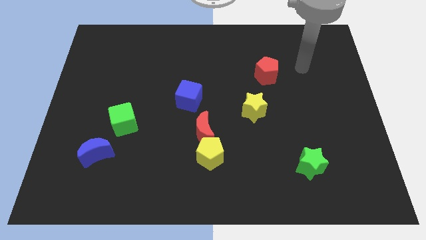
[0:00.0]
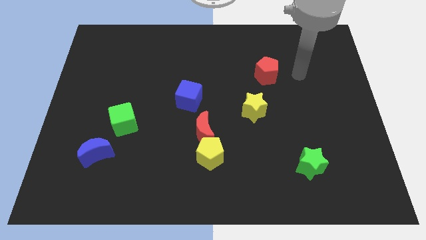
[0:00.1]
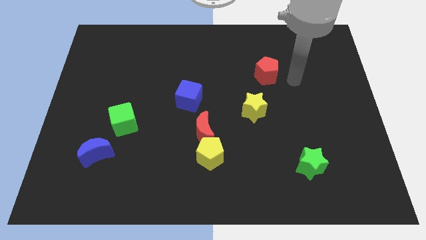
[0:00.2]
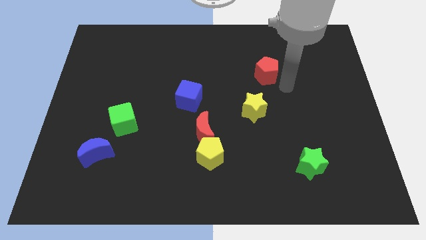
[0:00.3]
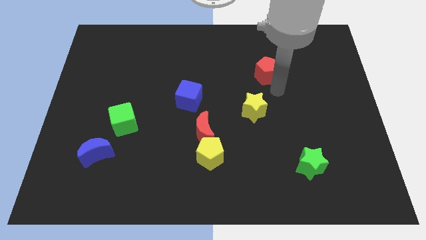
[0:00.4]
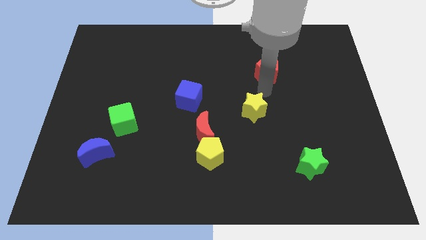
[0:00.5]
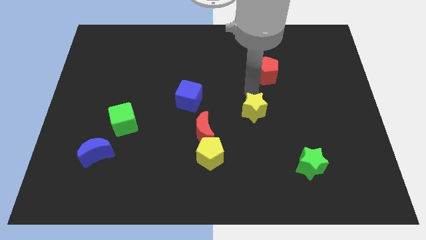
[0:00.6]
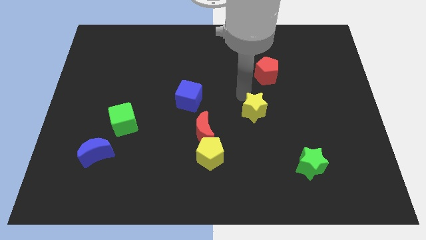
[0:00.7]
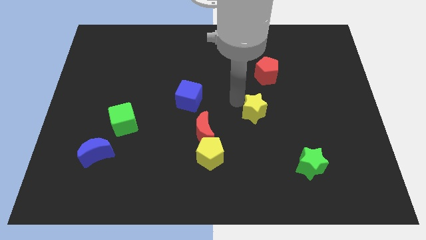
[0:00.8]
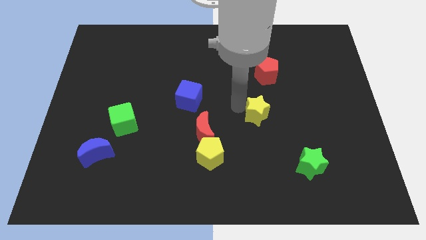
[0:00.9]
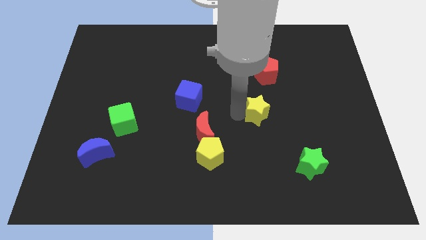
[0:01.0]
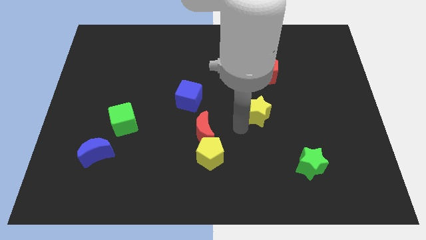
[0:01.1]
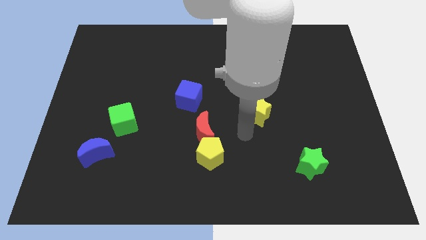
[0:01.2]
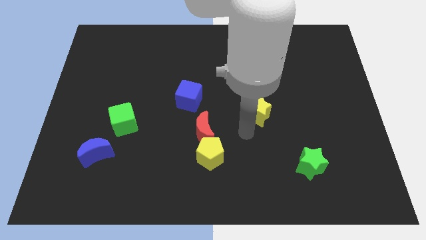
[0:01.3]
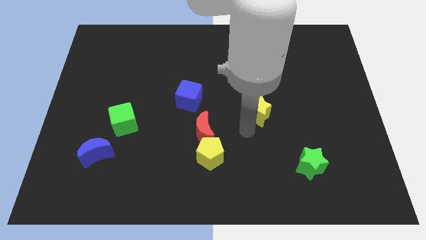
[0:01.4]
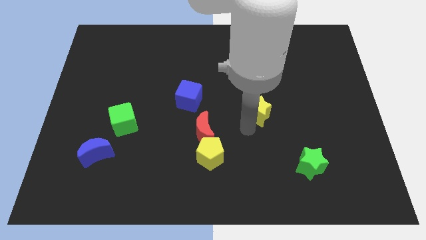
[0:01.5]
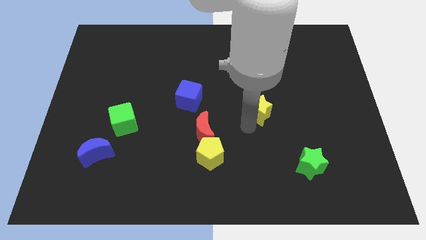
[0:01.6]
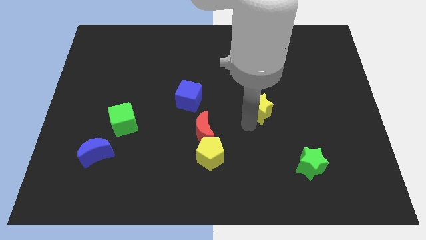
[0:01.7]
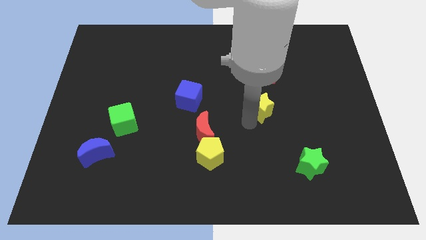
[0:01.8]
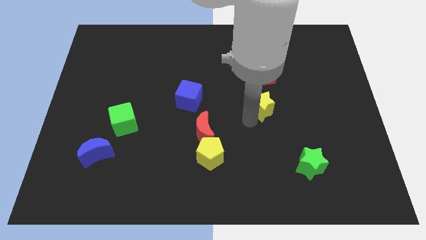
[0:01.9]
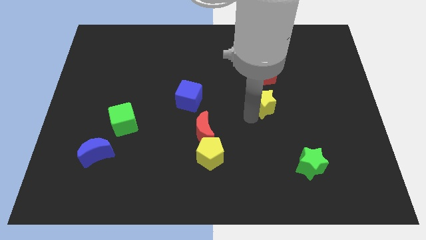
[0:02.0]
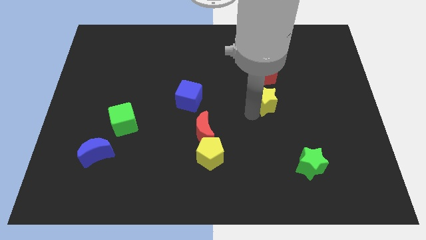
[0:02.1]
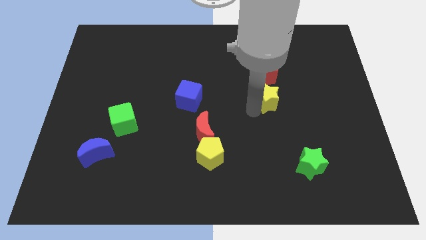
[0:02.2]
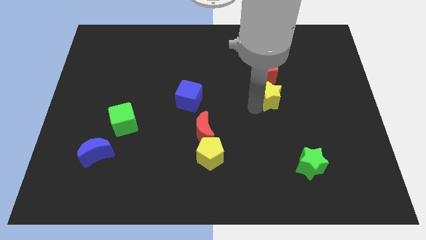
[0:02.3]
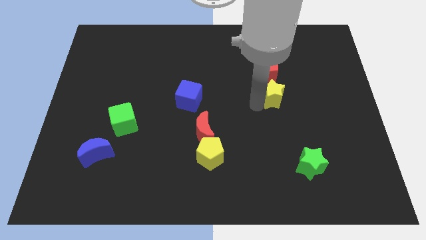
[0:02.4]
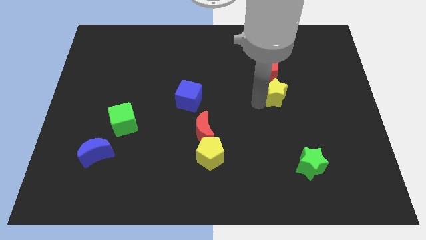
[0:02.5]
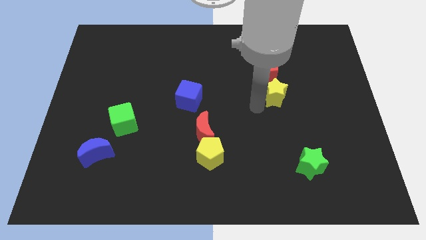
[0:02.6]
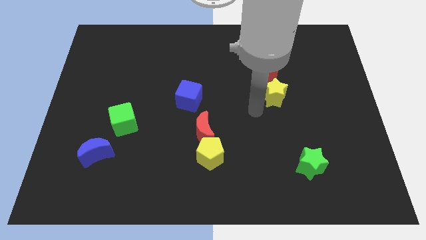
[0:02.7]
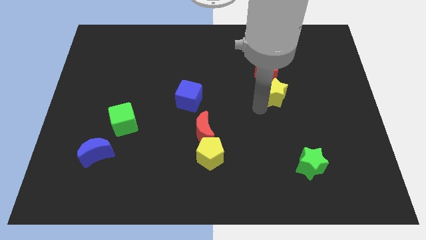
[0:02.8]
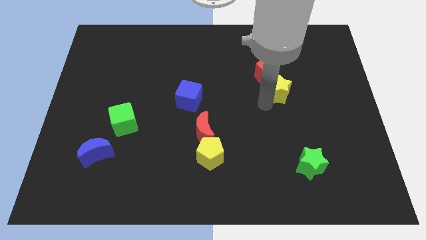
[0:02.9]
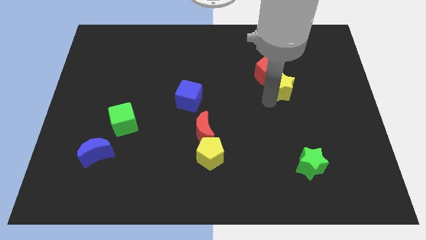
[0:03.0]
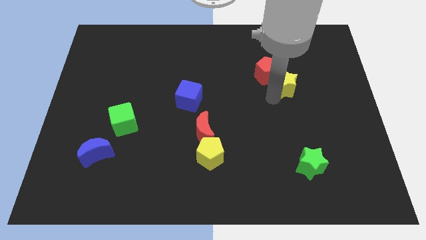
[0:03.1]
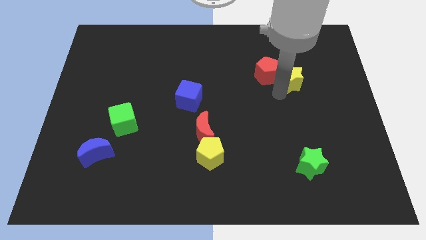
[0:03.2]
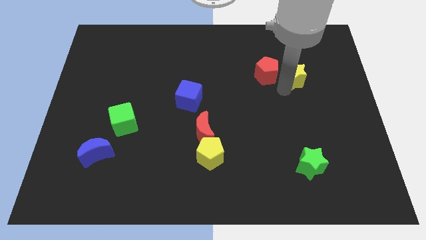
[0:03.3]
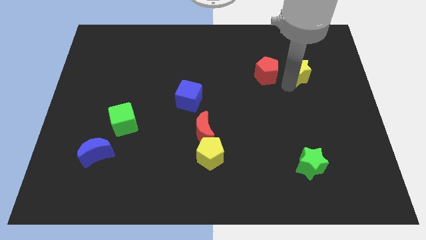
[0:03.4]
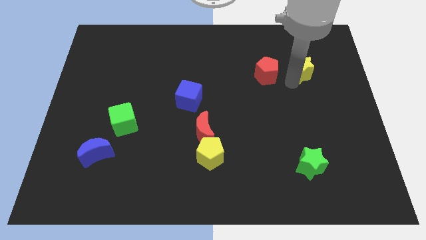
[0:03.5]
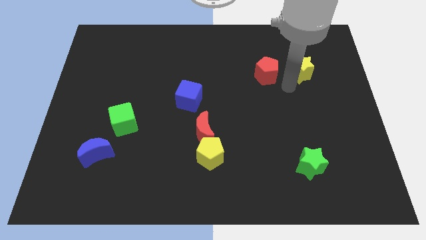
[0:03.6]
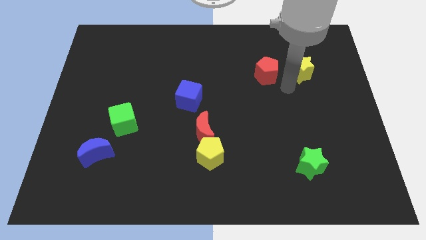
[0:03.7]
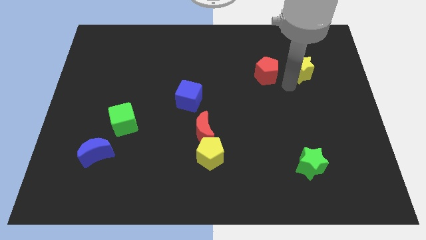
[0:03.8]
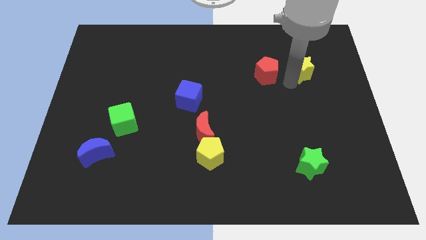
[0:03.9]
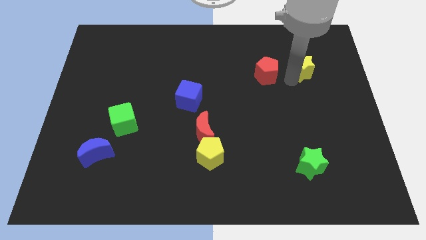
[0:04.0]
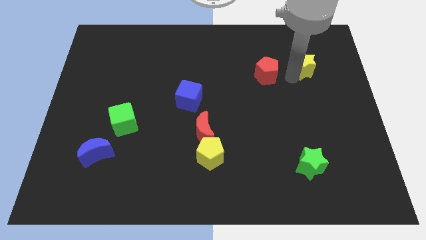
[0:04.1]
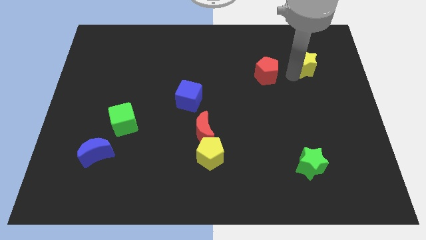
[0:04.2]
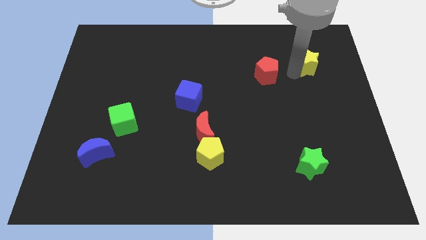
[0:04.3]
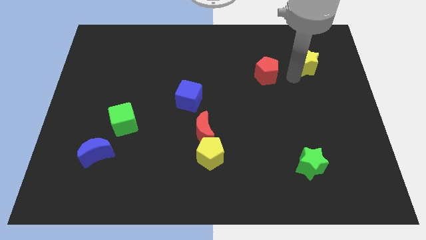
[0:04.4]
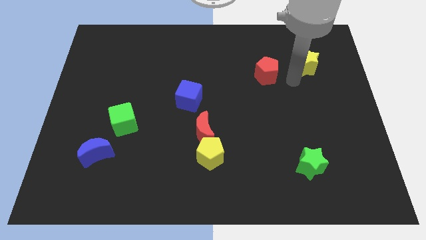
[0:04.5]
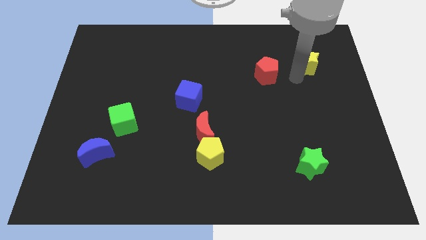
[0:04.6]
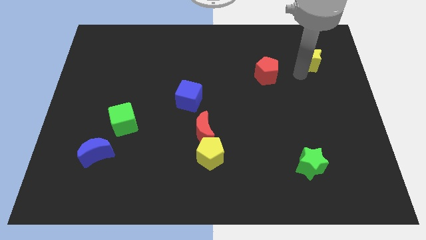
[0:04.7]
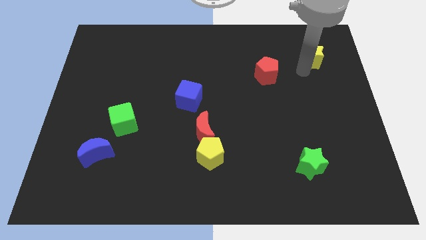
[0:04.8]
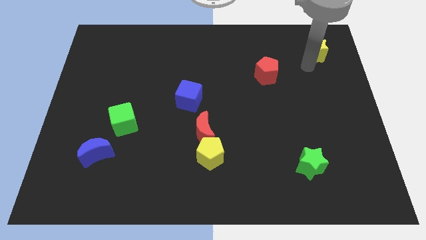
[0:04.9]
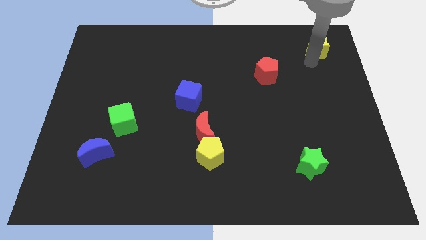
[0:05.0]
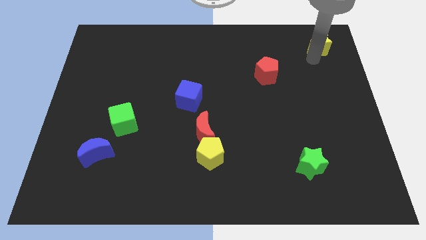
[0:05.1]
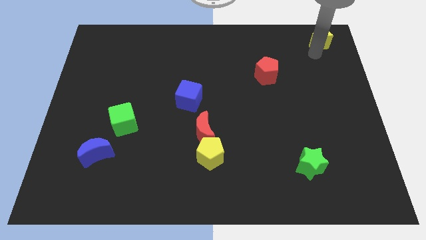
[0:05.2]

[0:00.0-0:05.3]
slide the yellow star to the top right corner

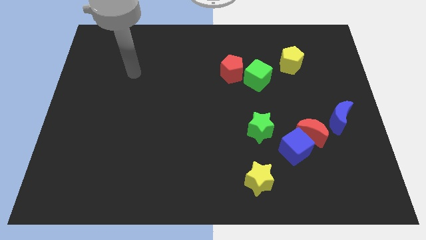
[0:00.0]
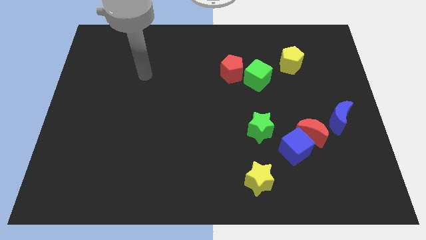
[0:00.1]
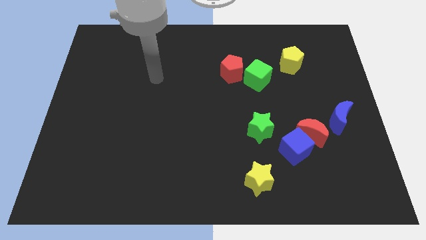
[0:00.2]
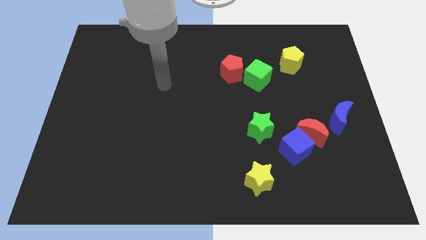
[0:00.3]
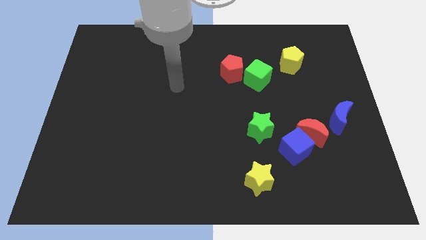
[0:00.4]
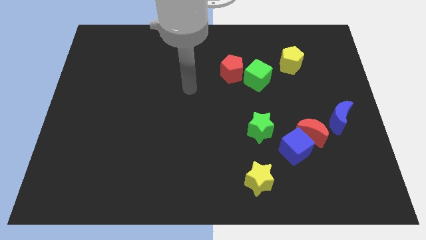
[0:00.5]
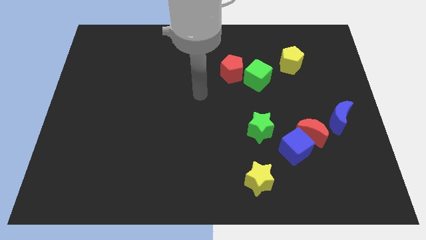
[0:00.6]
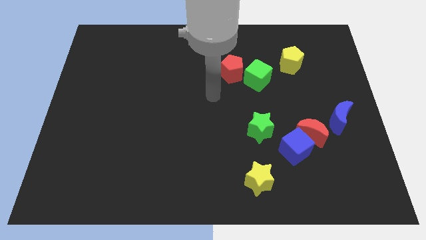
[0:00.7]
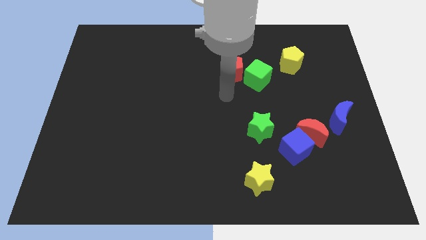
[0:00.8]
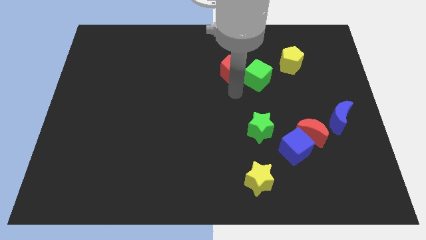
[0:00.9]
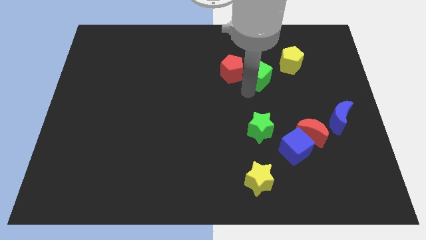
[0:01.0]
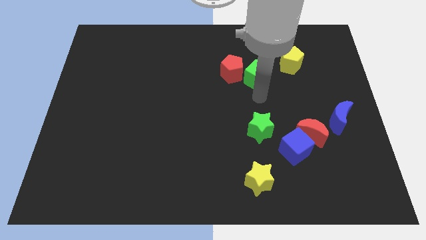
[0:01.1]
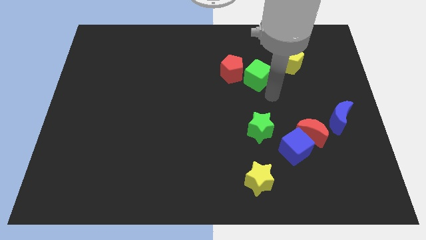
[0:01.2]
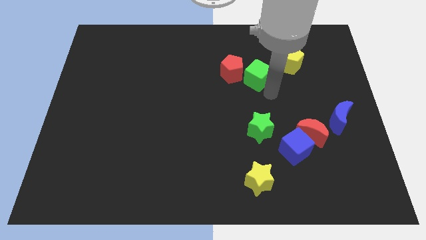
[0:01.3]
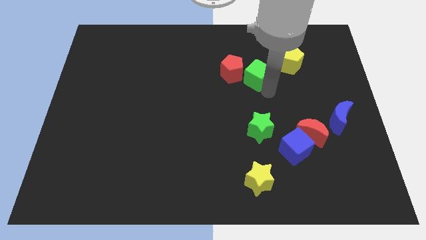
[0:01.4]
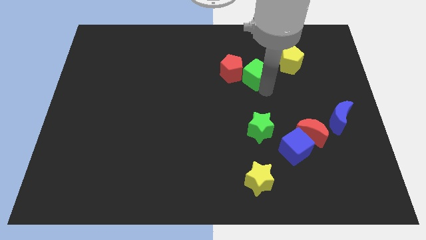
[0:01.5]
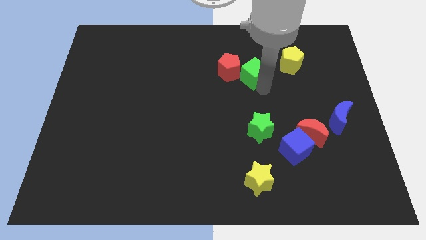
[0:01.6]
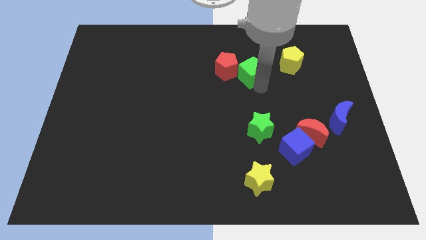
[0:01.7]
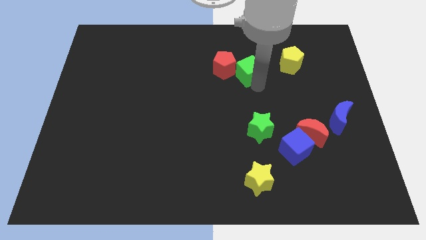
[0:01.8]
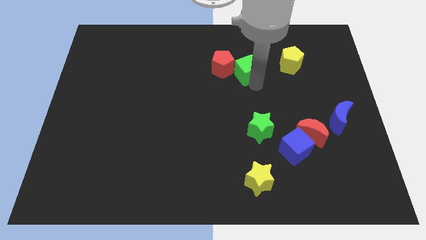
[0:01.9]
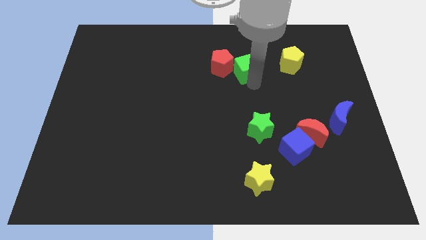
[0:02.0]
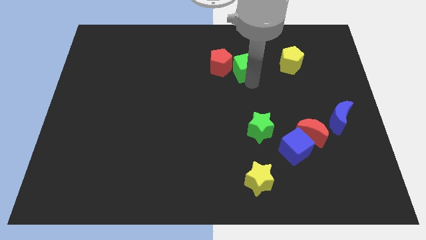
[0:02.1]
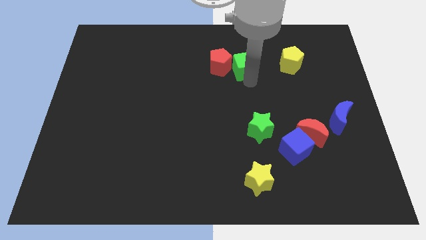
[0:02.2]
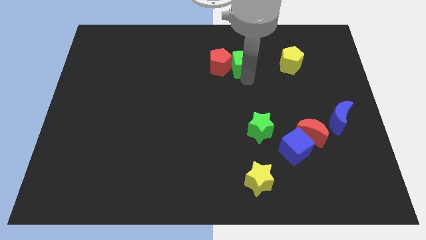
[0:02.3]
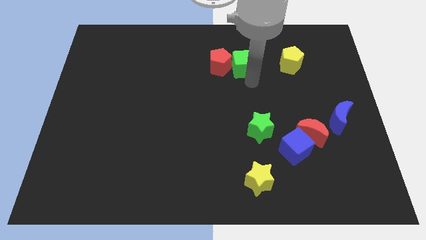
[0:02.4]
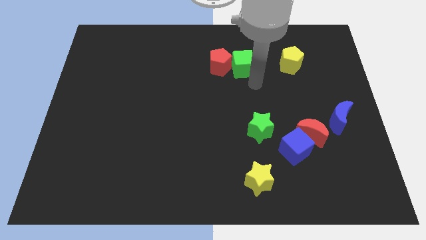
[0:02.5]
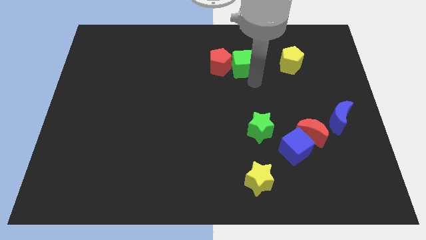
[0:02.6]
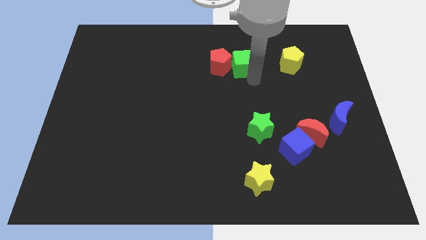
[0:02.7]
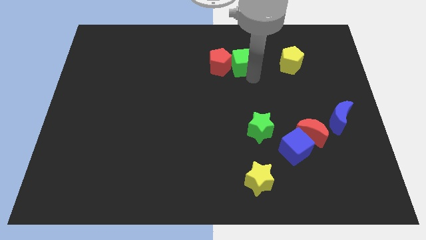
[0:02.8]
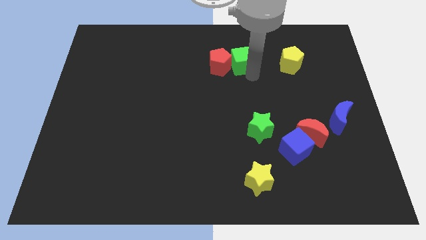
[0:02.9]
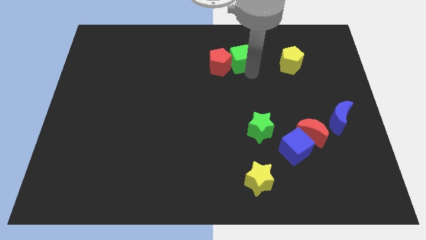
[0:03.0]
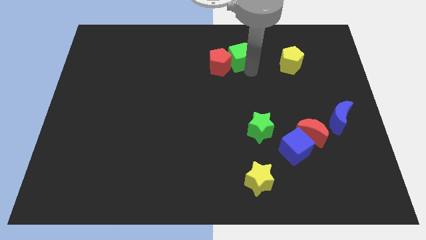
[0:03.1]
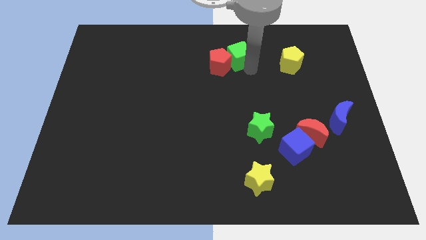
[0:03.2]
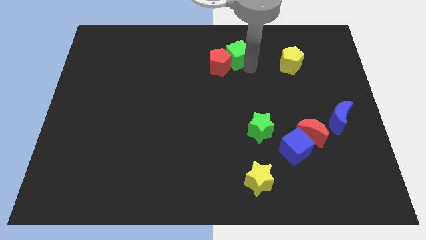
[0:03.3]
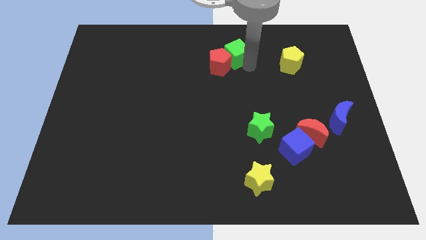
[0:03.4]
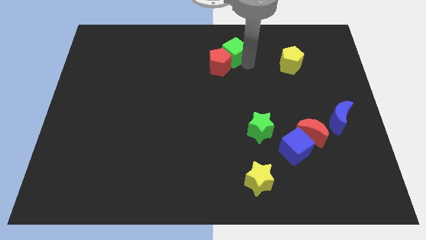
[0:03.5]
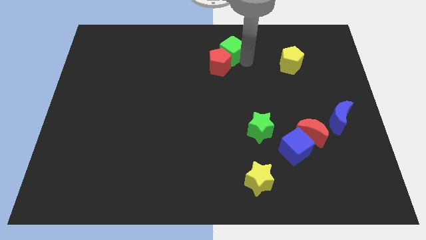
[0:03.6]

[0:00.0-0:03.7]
move the green cube to the top side
